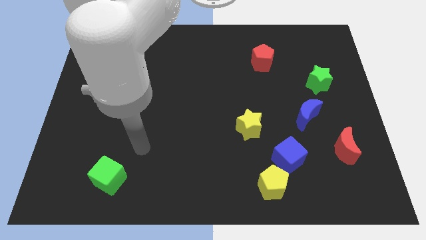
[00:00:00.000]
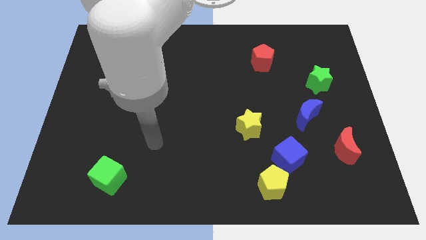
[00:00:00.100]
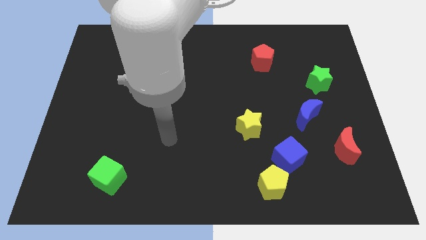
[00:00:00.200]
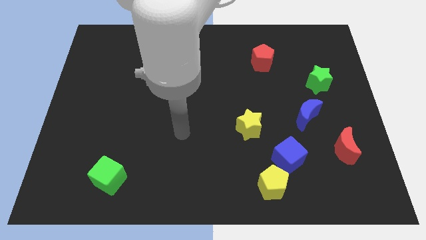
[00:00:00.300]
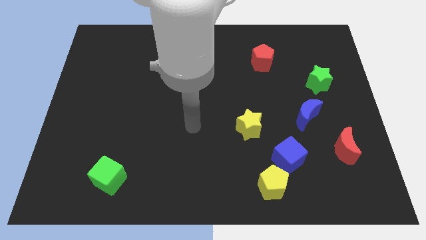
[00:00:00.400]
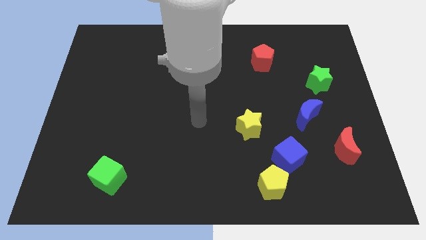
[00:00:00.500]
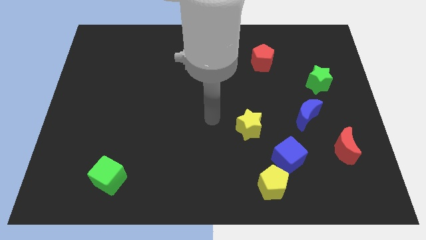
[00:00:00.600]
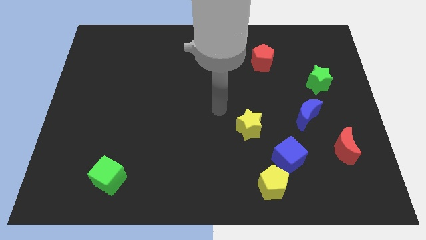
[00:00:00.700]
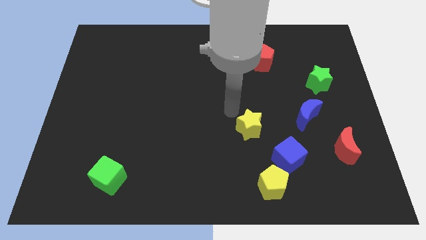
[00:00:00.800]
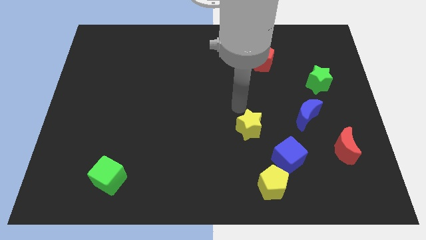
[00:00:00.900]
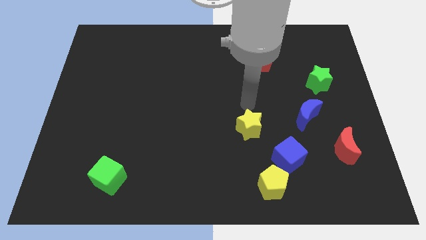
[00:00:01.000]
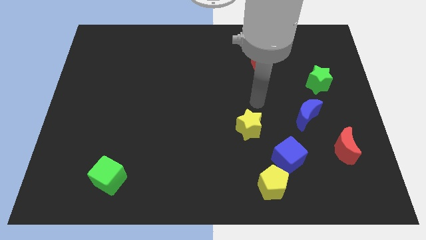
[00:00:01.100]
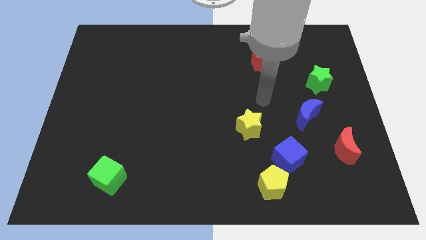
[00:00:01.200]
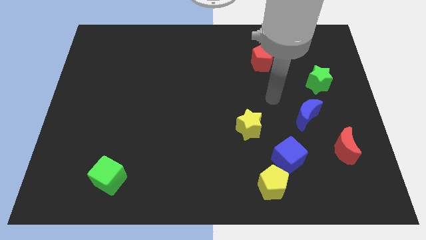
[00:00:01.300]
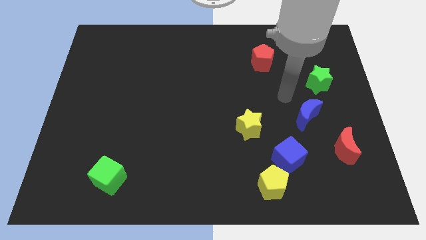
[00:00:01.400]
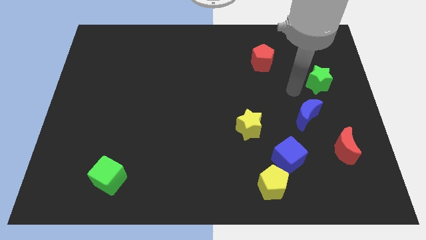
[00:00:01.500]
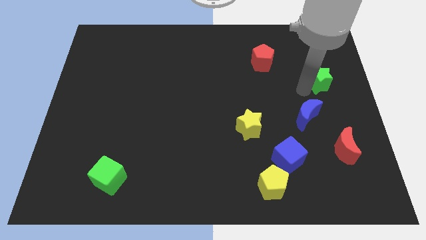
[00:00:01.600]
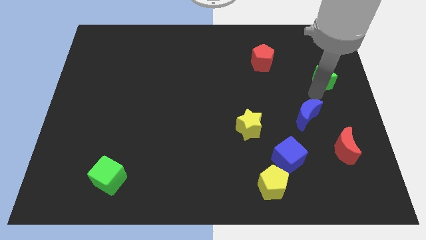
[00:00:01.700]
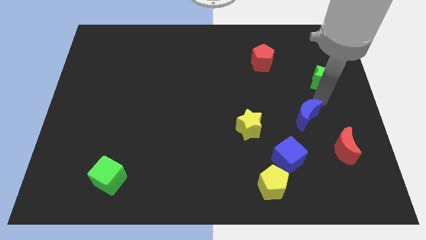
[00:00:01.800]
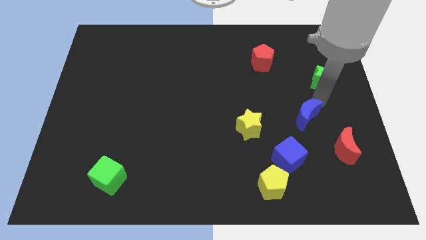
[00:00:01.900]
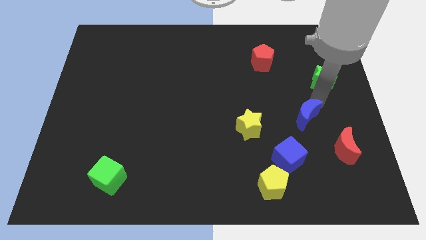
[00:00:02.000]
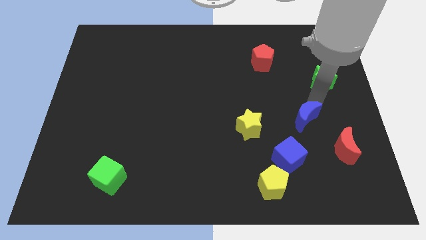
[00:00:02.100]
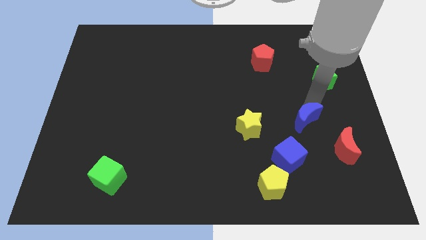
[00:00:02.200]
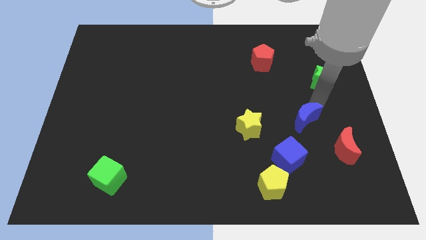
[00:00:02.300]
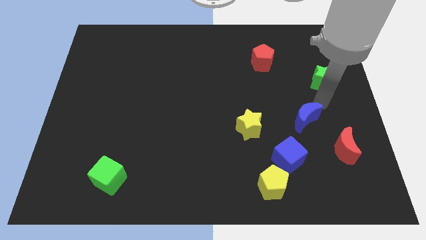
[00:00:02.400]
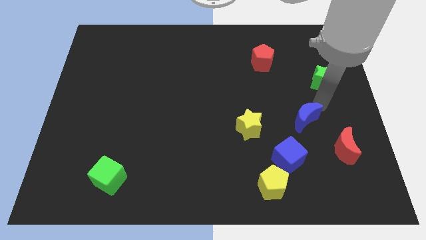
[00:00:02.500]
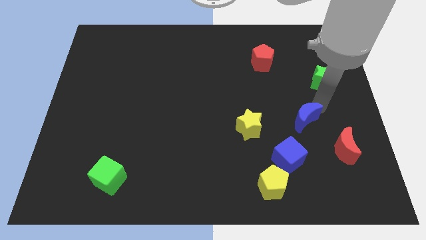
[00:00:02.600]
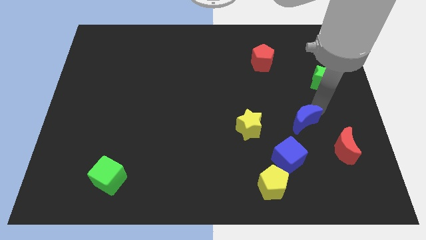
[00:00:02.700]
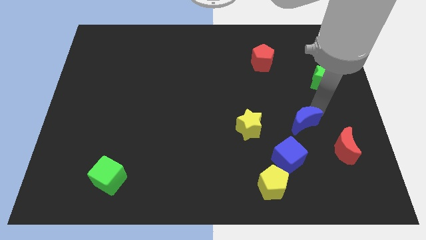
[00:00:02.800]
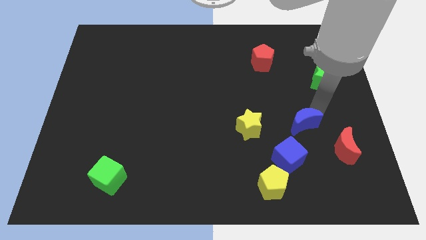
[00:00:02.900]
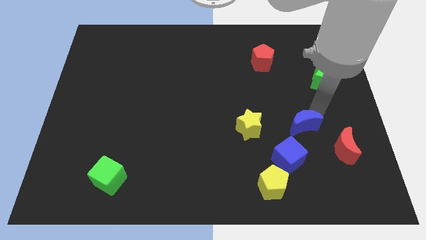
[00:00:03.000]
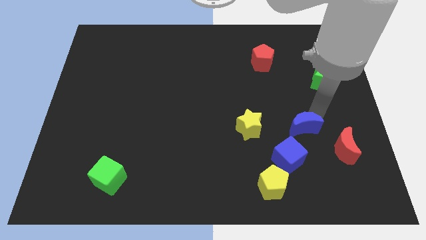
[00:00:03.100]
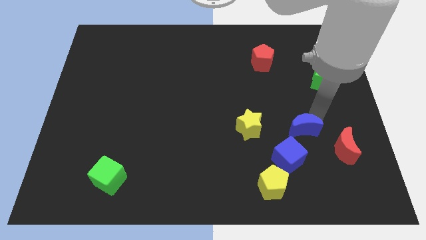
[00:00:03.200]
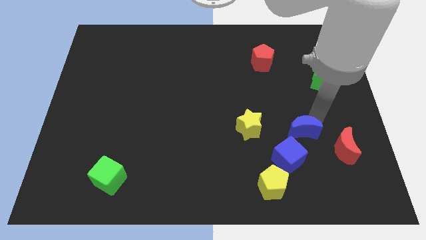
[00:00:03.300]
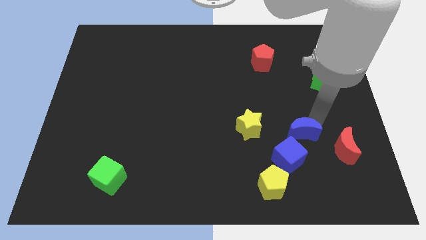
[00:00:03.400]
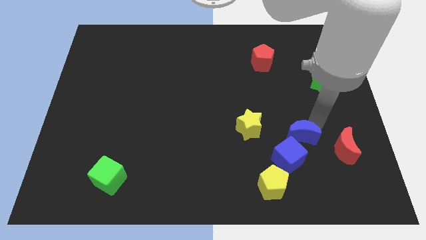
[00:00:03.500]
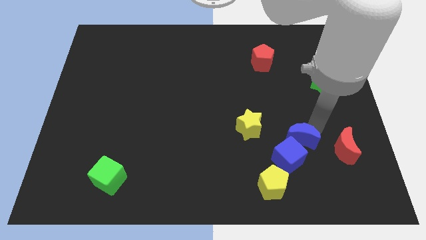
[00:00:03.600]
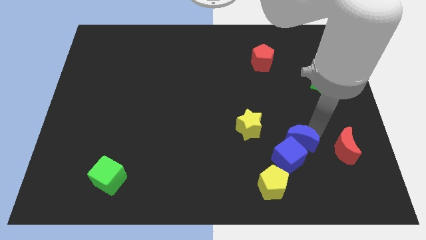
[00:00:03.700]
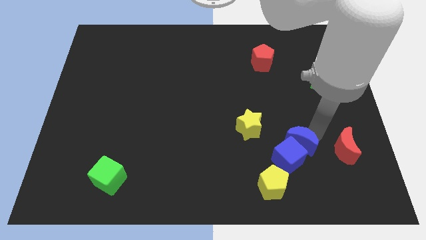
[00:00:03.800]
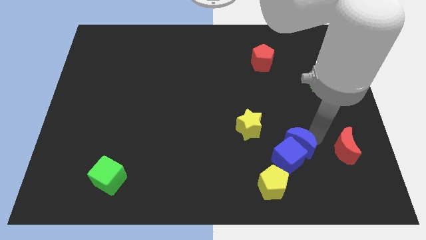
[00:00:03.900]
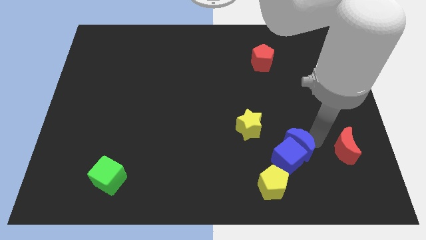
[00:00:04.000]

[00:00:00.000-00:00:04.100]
slide the blue moon a little downwards and to the left

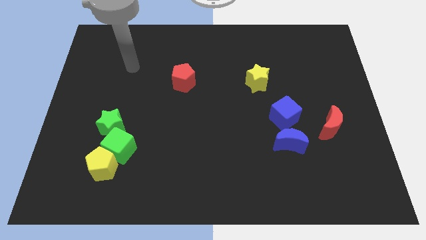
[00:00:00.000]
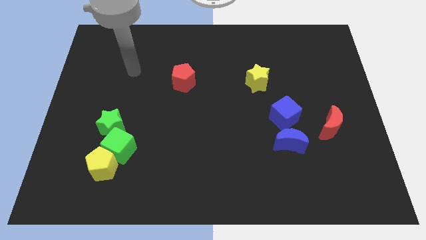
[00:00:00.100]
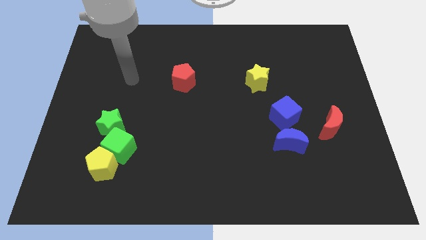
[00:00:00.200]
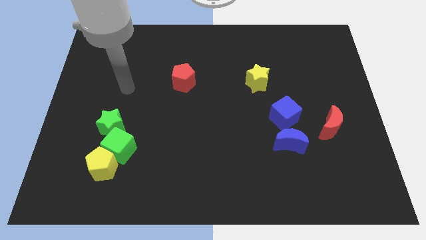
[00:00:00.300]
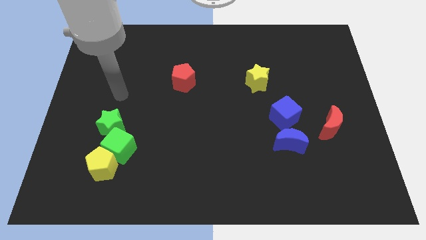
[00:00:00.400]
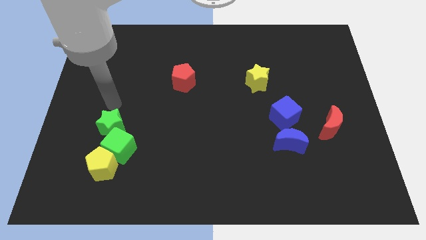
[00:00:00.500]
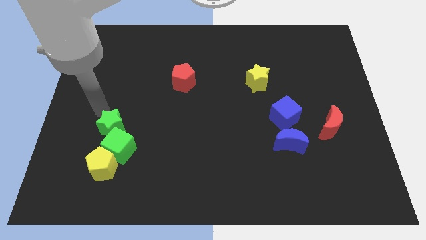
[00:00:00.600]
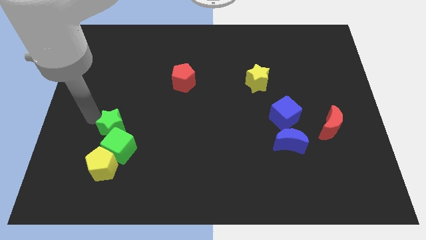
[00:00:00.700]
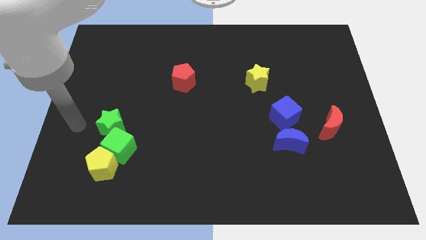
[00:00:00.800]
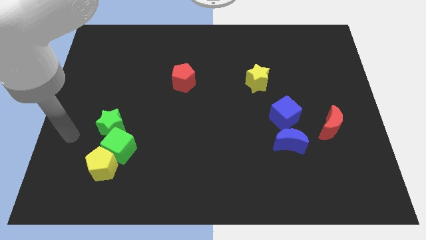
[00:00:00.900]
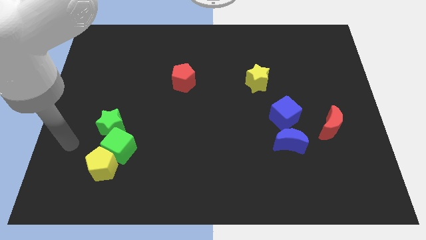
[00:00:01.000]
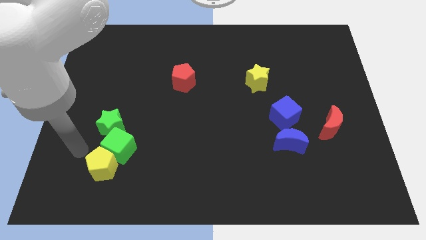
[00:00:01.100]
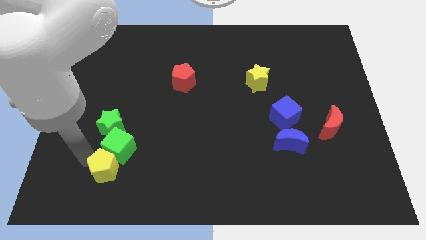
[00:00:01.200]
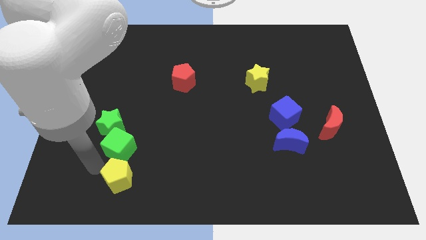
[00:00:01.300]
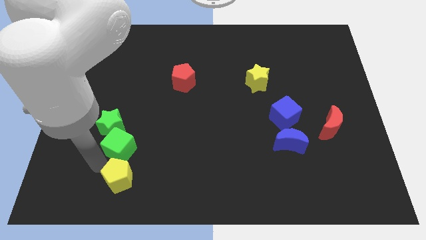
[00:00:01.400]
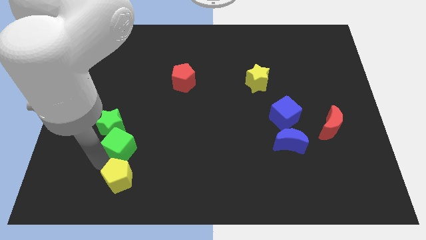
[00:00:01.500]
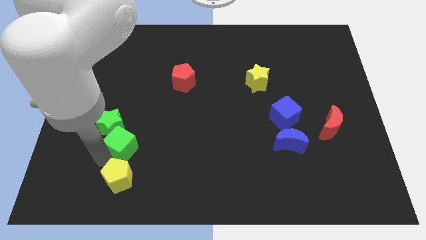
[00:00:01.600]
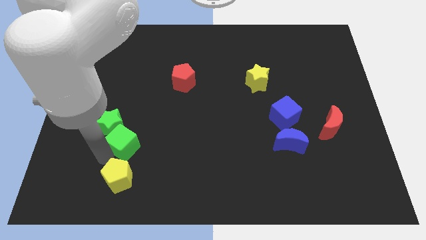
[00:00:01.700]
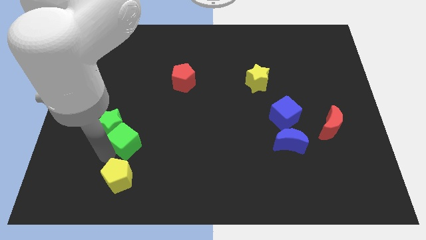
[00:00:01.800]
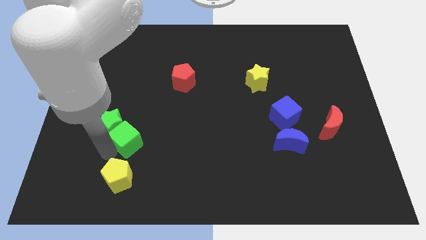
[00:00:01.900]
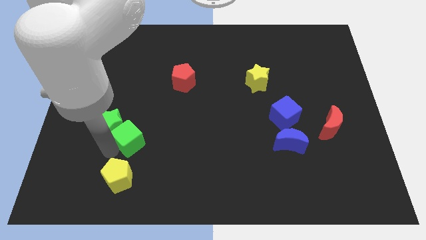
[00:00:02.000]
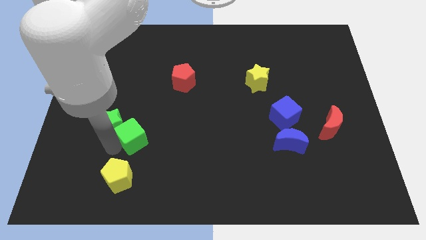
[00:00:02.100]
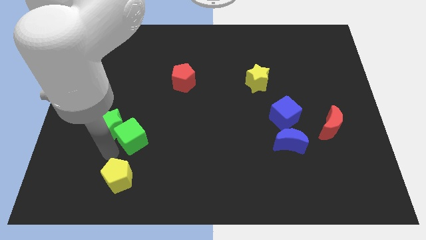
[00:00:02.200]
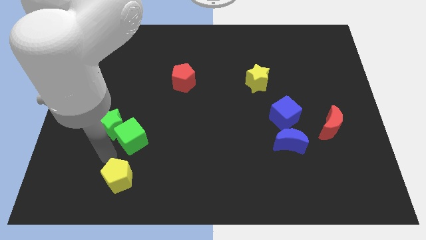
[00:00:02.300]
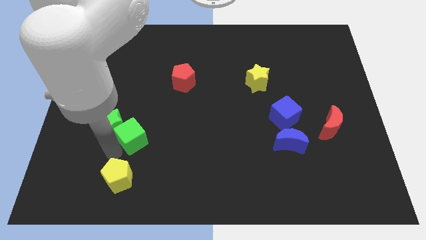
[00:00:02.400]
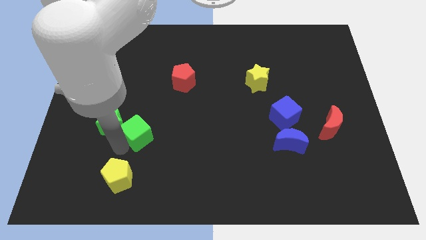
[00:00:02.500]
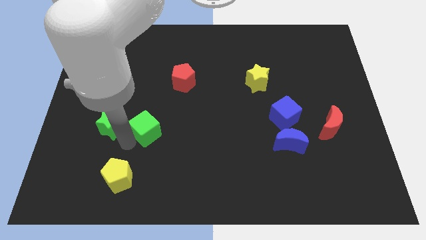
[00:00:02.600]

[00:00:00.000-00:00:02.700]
move the green cube a bit up and right diagonally

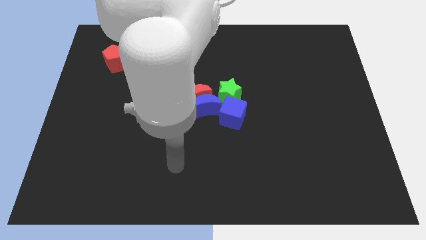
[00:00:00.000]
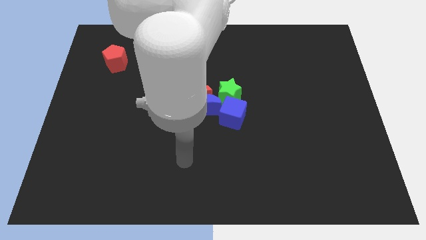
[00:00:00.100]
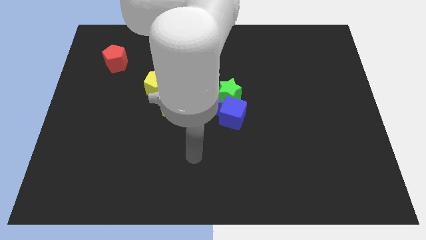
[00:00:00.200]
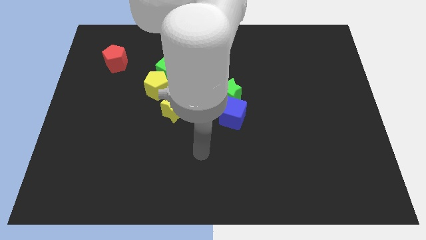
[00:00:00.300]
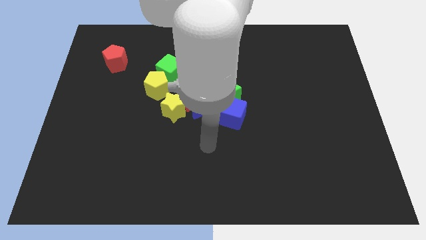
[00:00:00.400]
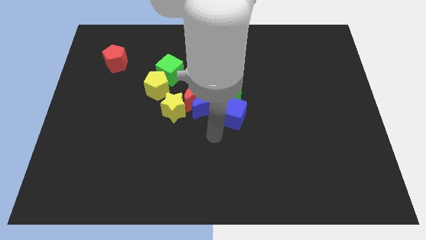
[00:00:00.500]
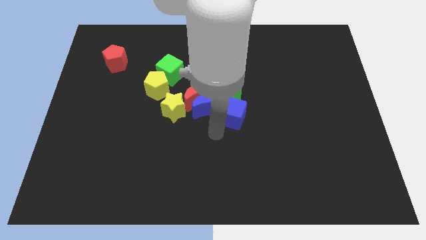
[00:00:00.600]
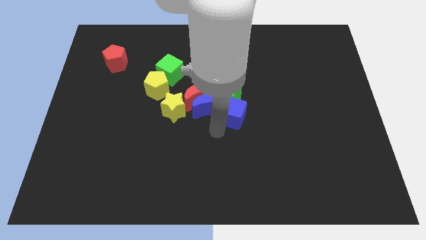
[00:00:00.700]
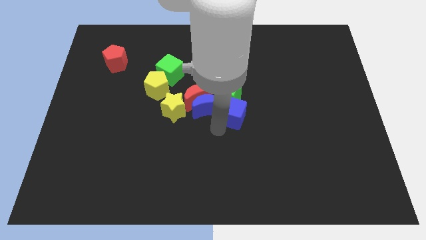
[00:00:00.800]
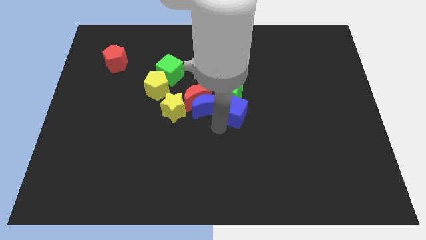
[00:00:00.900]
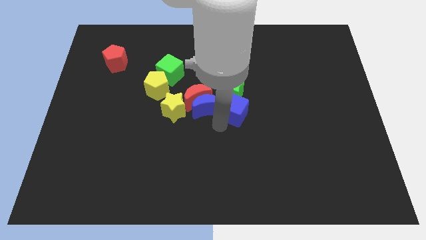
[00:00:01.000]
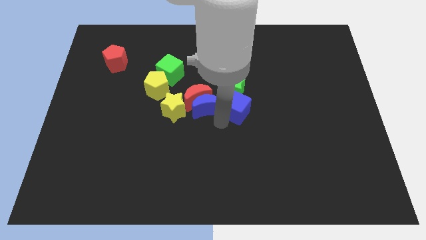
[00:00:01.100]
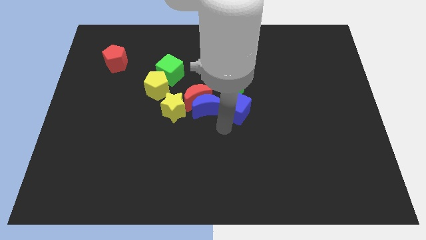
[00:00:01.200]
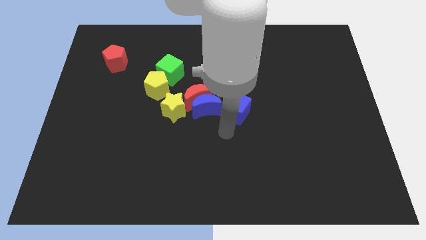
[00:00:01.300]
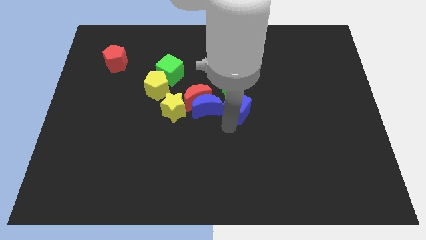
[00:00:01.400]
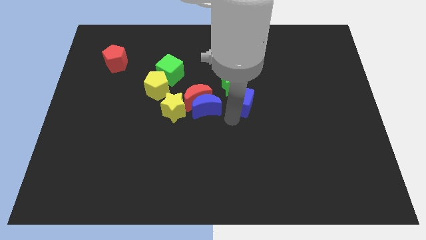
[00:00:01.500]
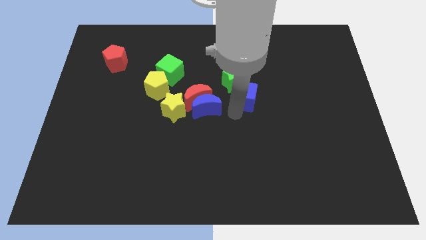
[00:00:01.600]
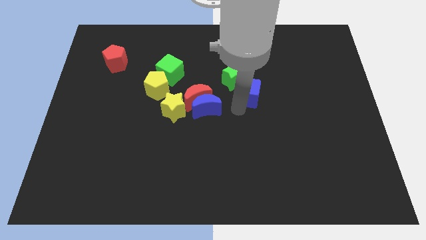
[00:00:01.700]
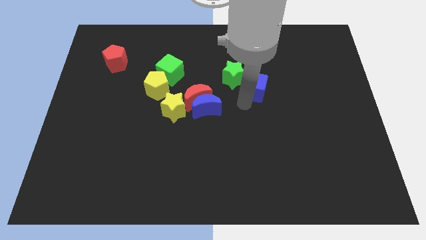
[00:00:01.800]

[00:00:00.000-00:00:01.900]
move the blue cube slightly upwards
